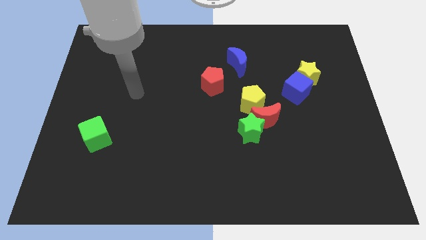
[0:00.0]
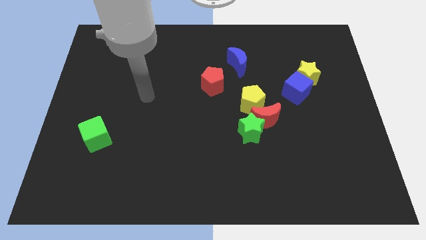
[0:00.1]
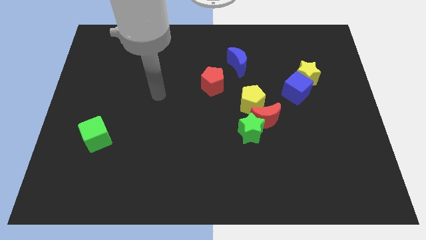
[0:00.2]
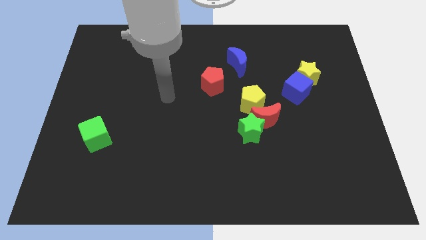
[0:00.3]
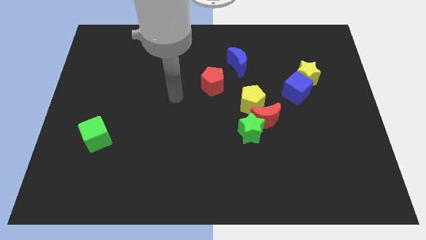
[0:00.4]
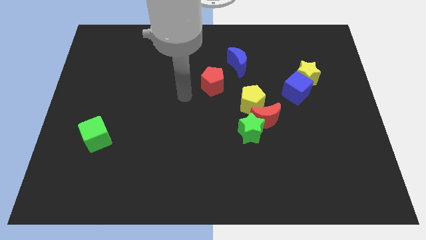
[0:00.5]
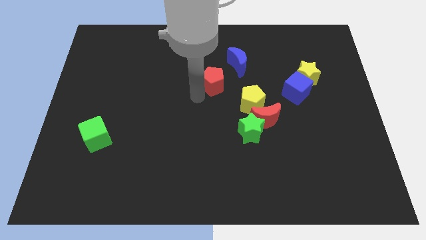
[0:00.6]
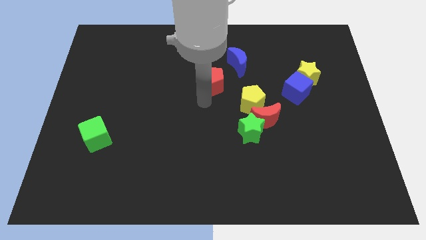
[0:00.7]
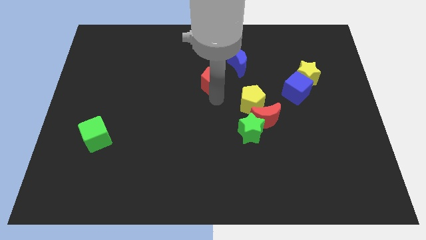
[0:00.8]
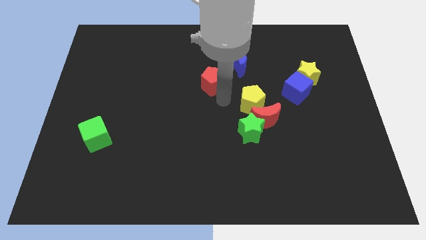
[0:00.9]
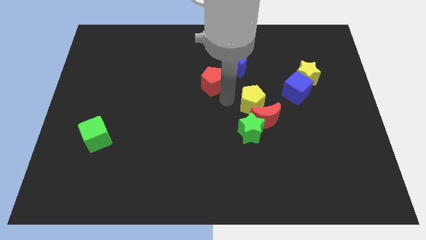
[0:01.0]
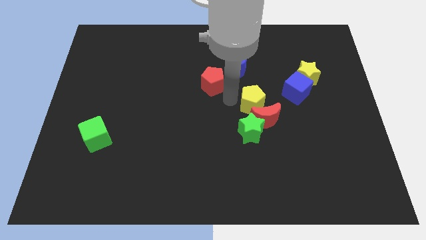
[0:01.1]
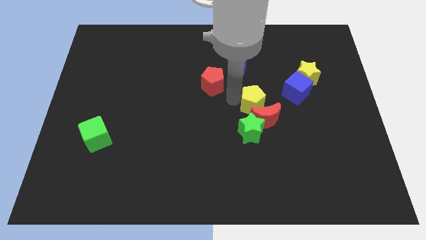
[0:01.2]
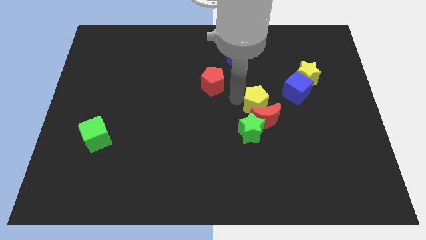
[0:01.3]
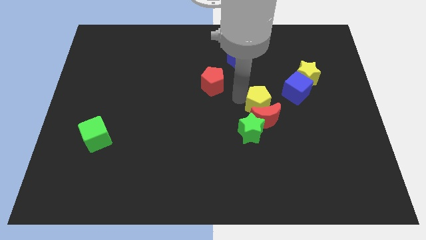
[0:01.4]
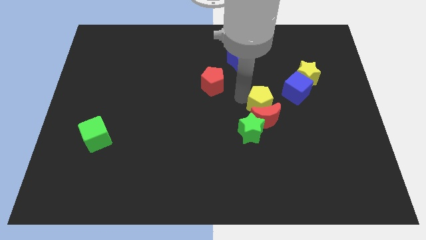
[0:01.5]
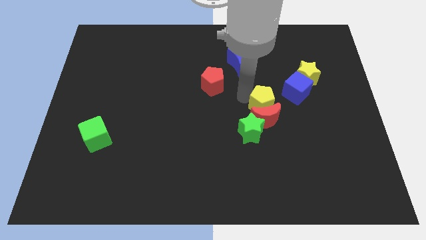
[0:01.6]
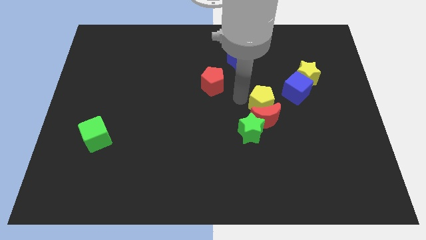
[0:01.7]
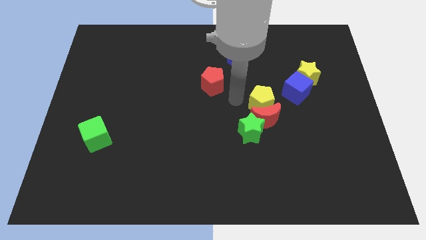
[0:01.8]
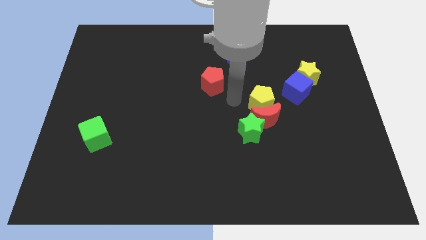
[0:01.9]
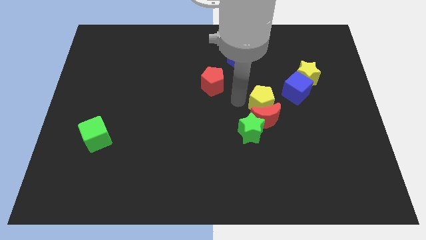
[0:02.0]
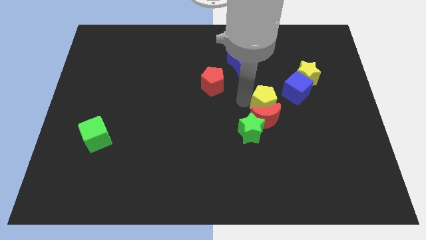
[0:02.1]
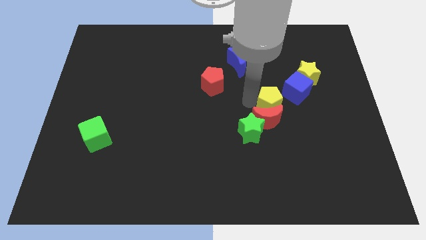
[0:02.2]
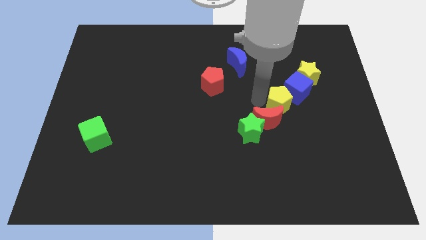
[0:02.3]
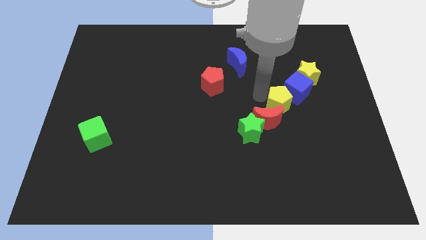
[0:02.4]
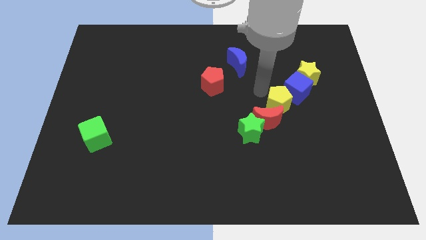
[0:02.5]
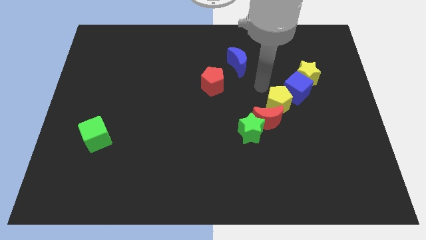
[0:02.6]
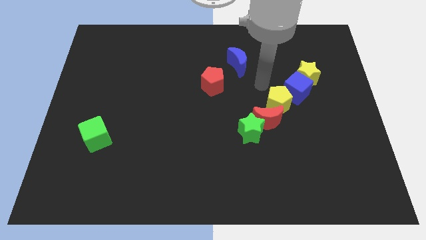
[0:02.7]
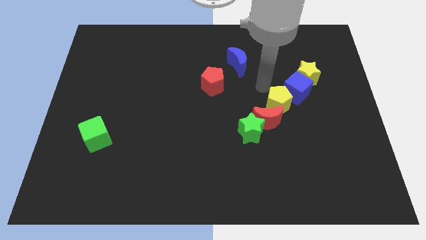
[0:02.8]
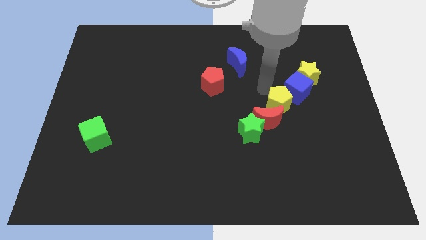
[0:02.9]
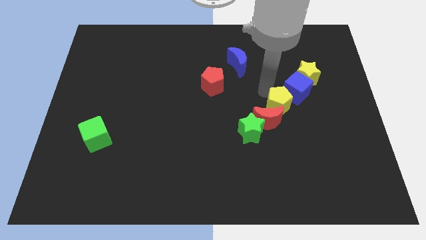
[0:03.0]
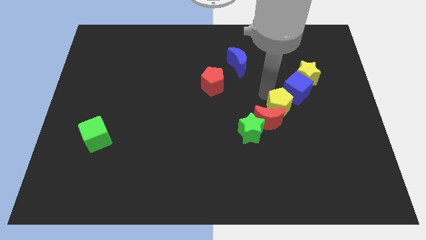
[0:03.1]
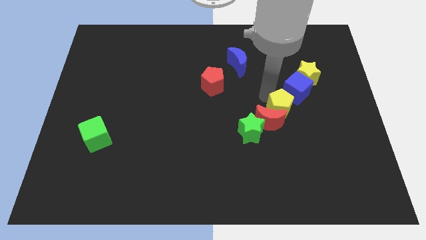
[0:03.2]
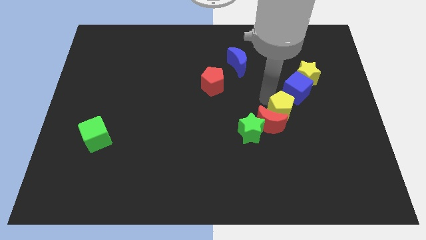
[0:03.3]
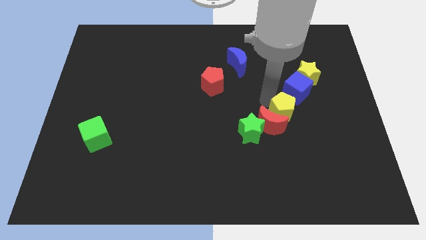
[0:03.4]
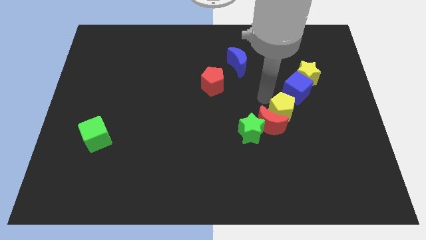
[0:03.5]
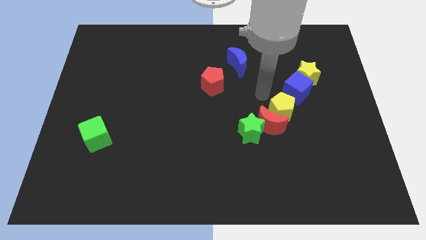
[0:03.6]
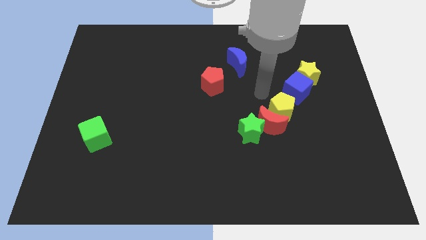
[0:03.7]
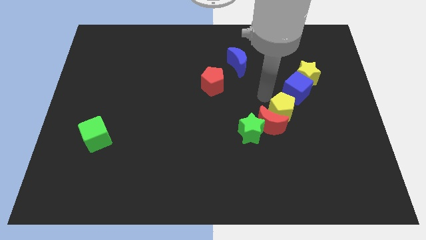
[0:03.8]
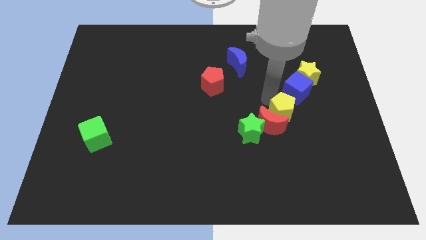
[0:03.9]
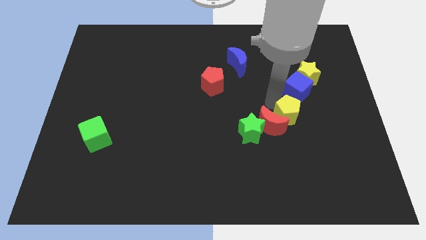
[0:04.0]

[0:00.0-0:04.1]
push the yellow pentagon diagonally down and right somewhat

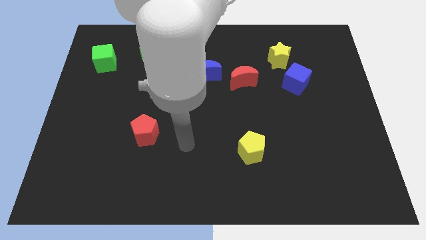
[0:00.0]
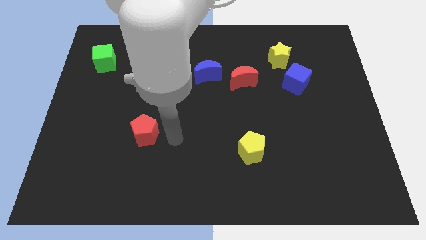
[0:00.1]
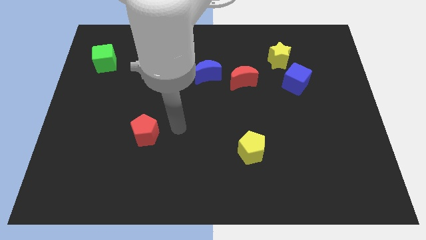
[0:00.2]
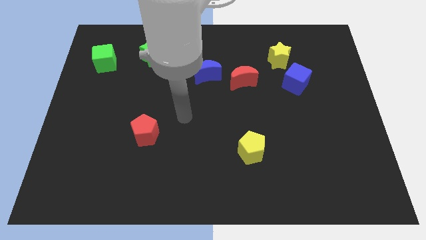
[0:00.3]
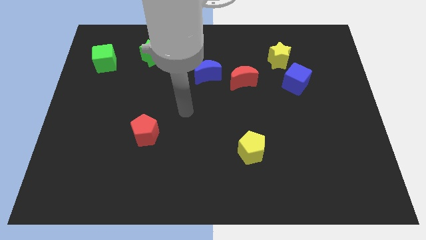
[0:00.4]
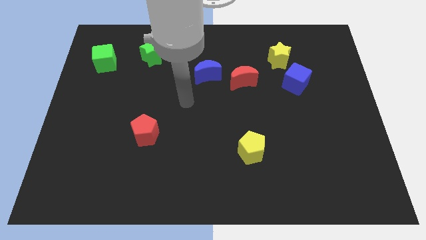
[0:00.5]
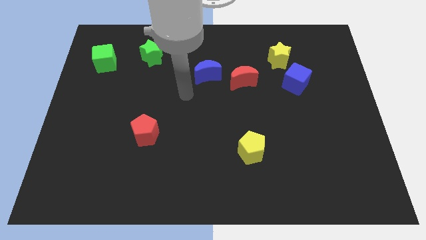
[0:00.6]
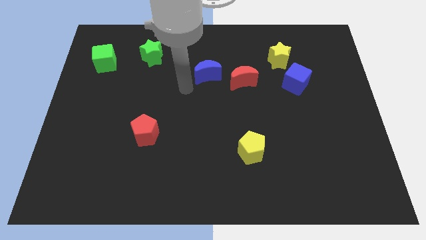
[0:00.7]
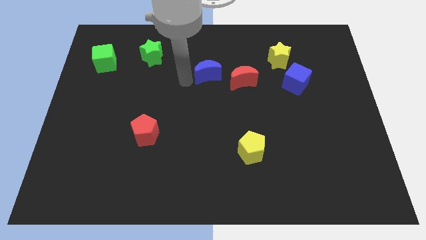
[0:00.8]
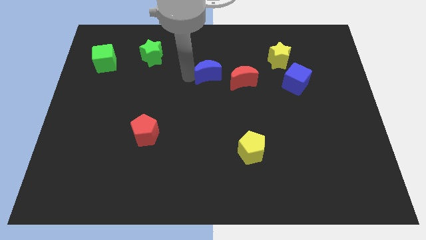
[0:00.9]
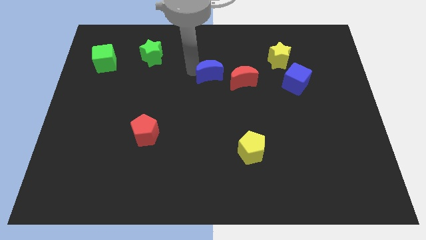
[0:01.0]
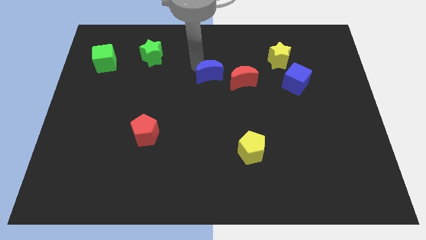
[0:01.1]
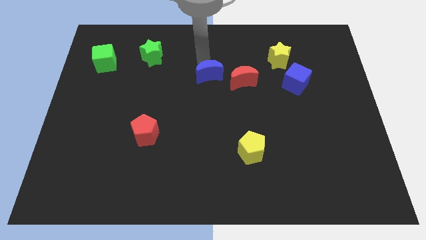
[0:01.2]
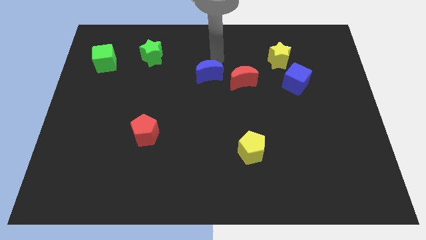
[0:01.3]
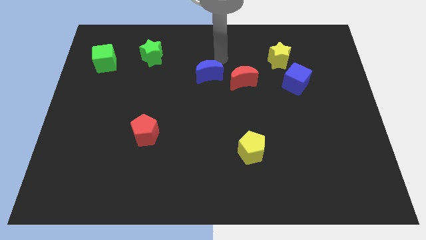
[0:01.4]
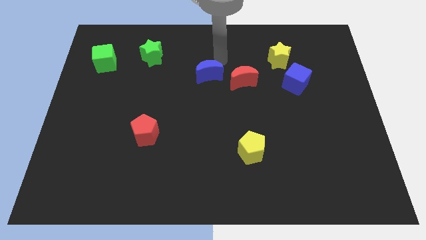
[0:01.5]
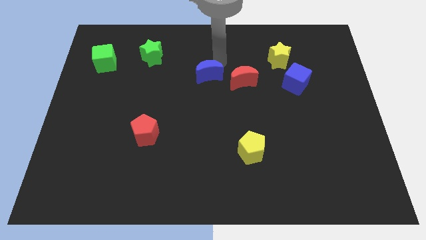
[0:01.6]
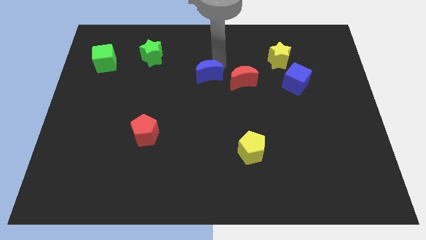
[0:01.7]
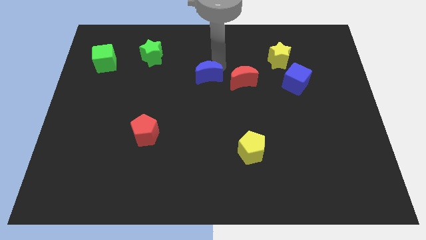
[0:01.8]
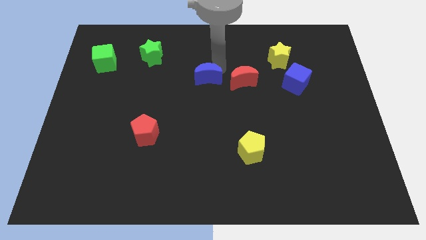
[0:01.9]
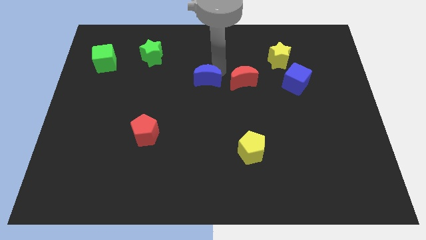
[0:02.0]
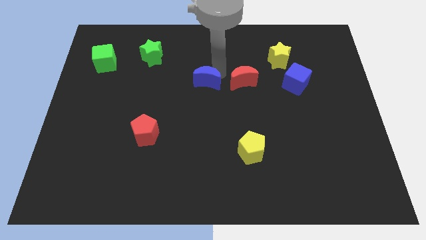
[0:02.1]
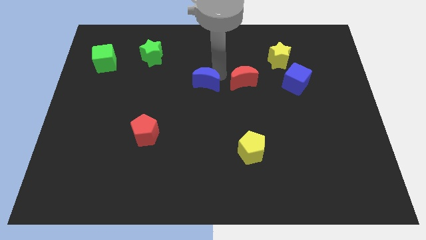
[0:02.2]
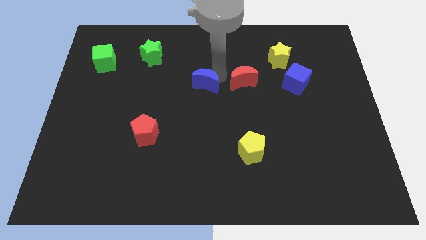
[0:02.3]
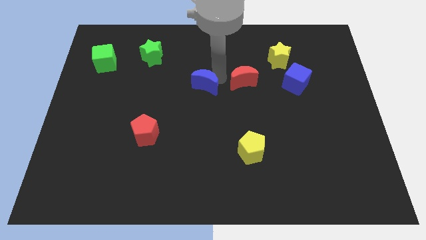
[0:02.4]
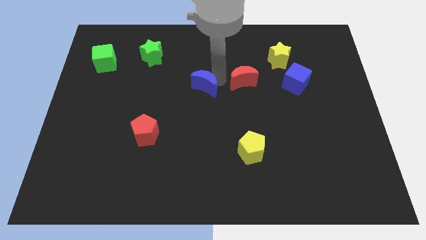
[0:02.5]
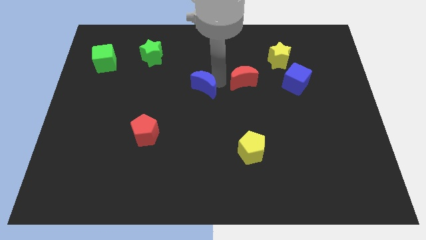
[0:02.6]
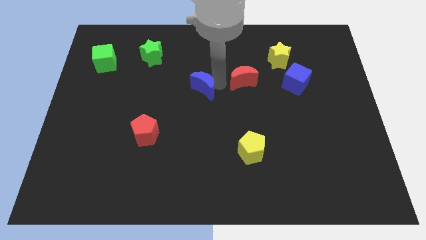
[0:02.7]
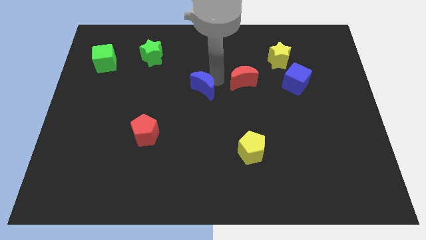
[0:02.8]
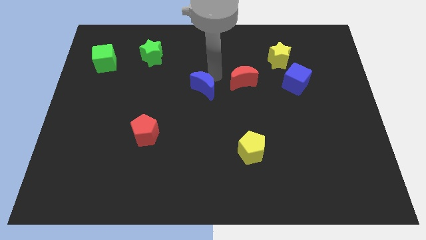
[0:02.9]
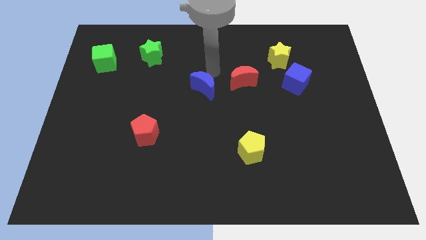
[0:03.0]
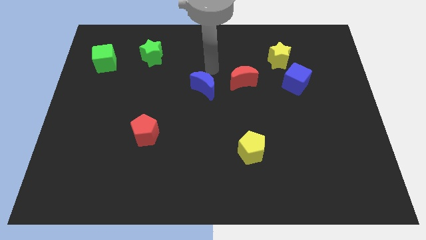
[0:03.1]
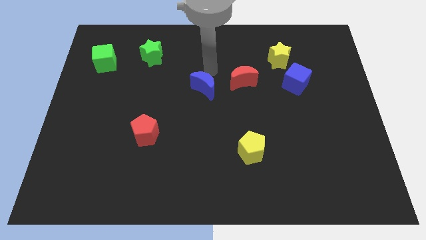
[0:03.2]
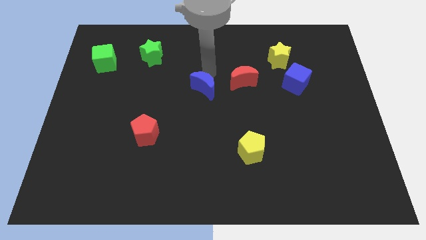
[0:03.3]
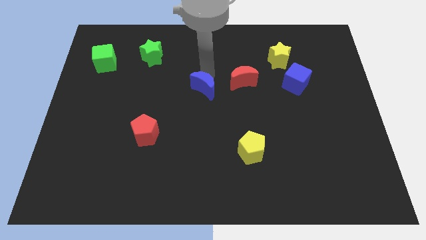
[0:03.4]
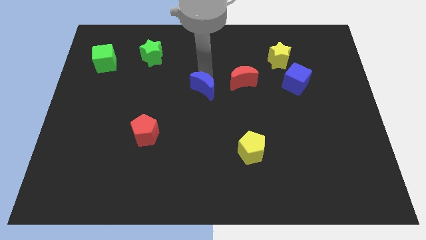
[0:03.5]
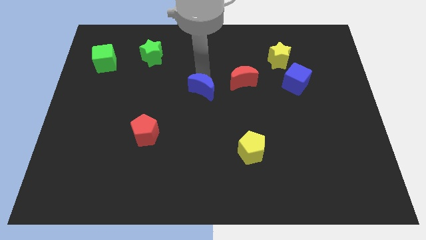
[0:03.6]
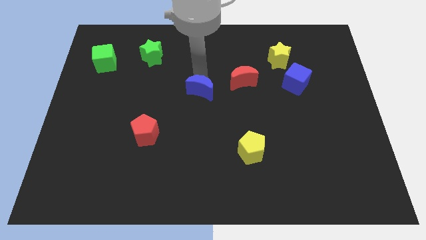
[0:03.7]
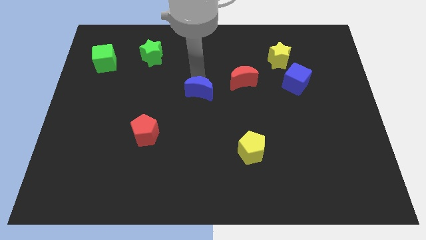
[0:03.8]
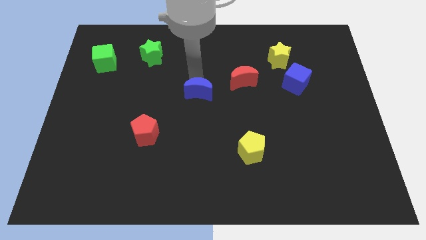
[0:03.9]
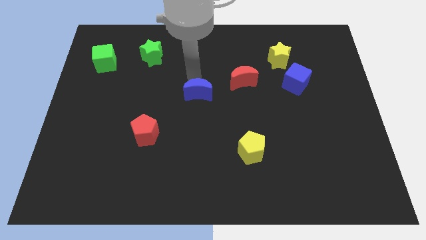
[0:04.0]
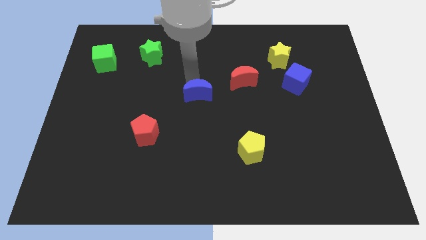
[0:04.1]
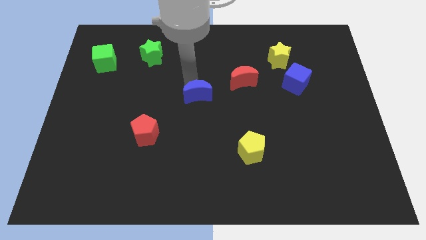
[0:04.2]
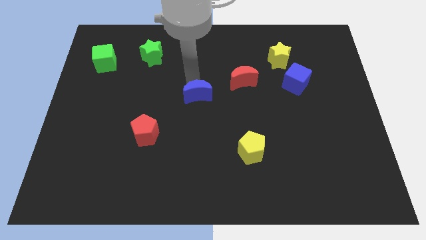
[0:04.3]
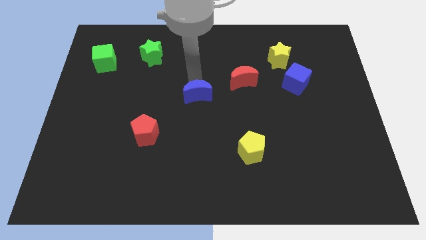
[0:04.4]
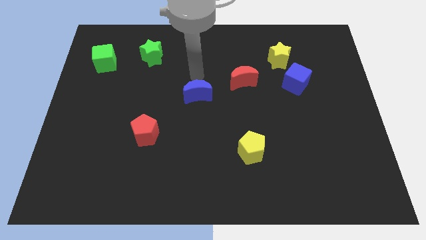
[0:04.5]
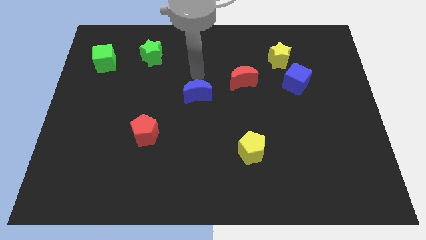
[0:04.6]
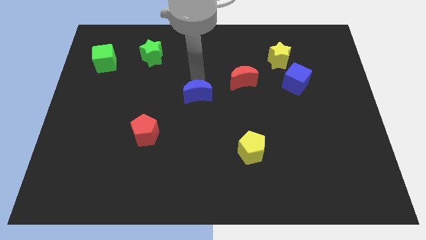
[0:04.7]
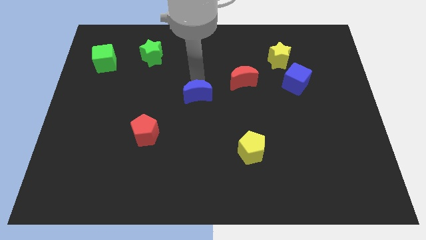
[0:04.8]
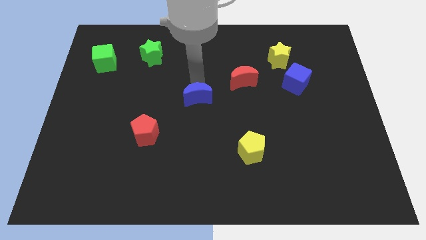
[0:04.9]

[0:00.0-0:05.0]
slide the blue moon a little down
